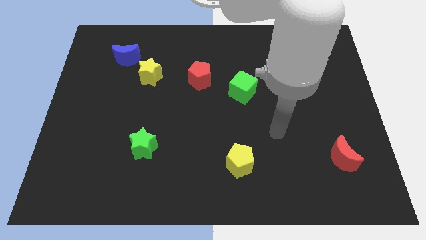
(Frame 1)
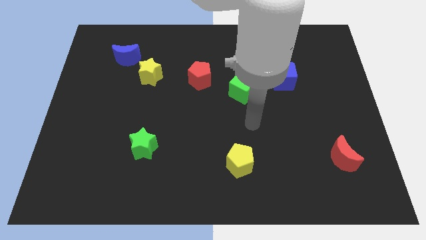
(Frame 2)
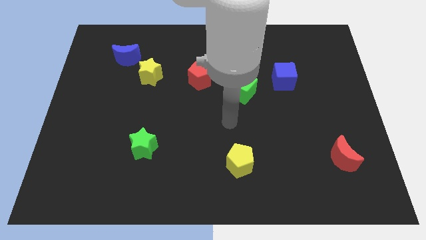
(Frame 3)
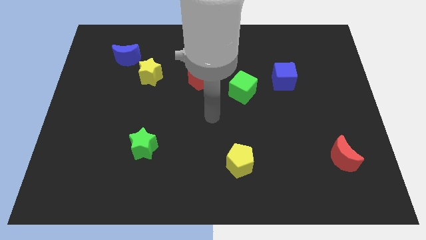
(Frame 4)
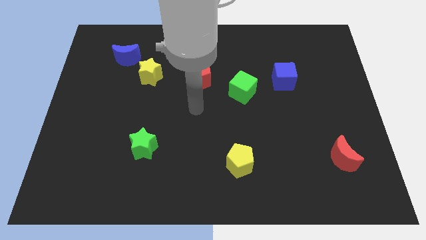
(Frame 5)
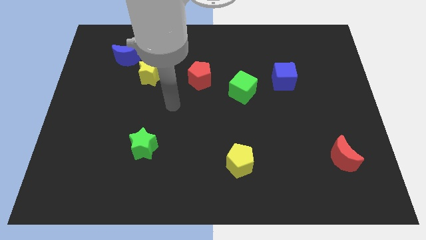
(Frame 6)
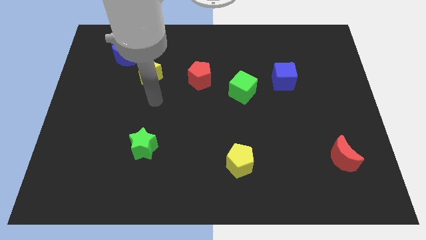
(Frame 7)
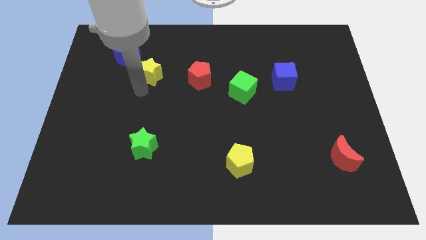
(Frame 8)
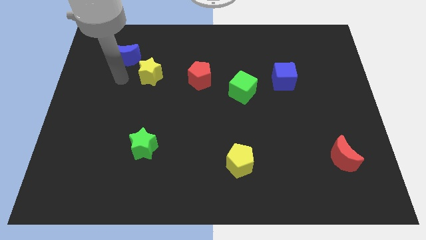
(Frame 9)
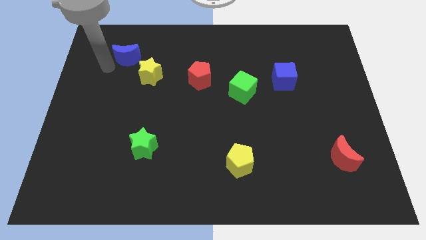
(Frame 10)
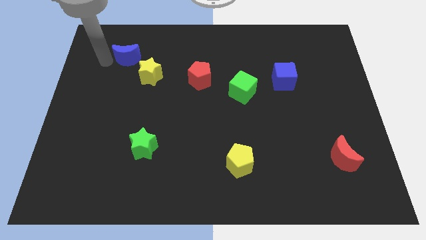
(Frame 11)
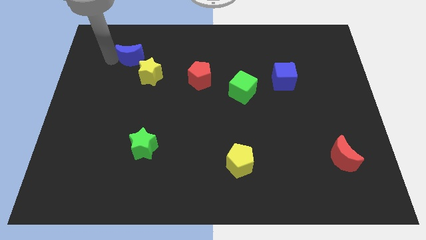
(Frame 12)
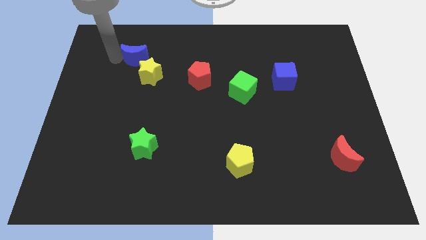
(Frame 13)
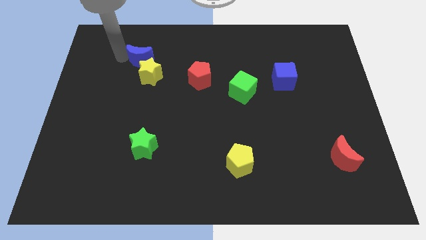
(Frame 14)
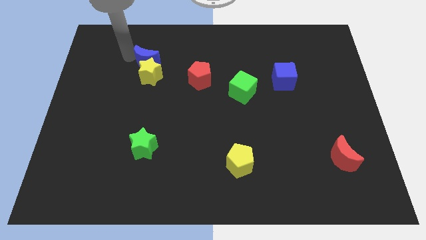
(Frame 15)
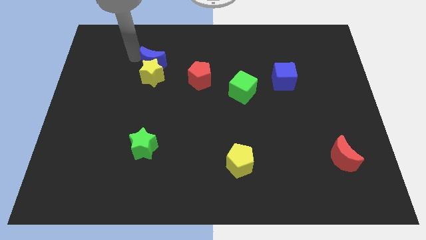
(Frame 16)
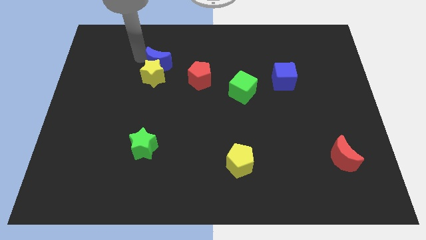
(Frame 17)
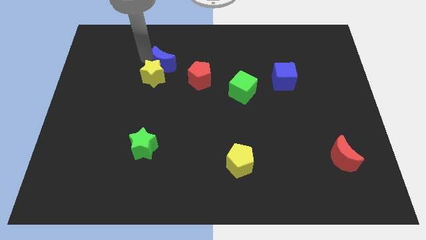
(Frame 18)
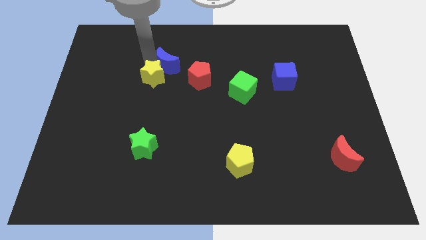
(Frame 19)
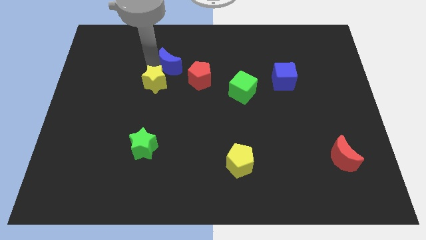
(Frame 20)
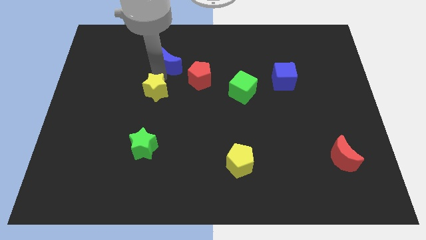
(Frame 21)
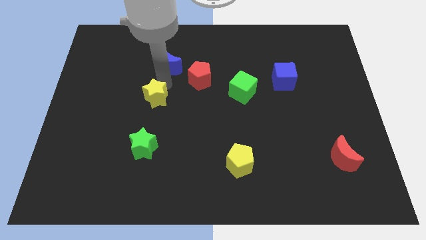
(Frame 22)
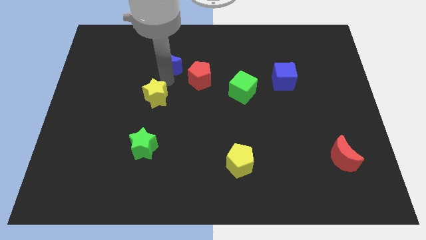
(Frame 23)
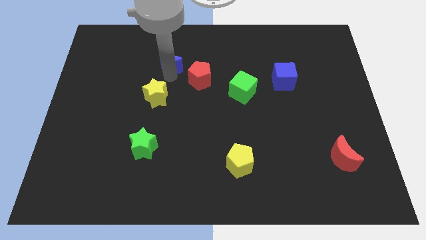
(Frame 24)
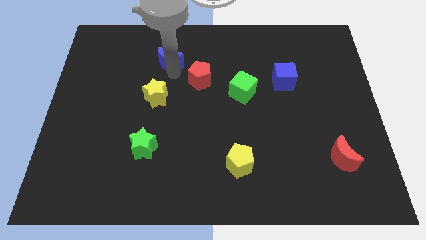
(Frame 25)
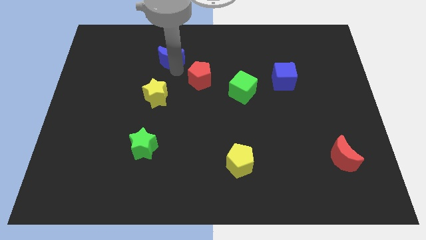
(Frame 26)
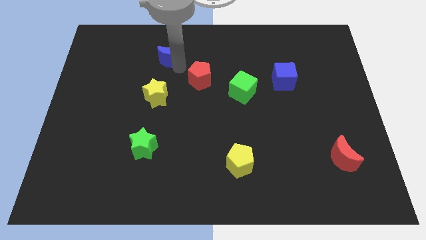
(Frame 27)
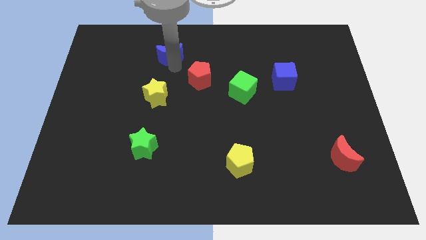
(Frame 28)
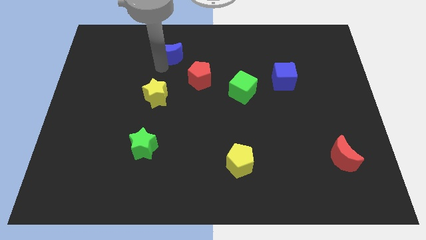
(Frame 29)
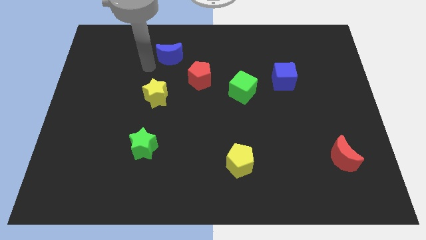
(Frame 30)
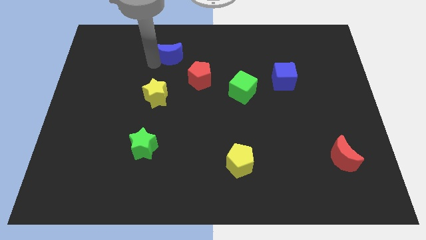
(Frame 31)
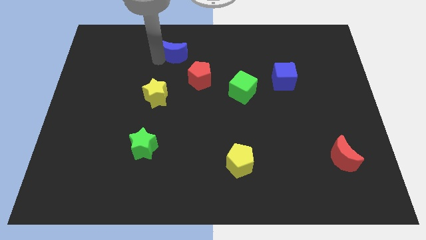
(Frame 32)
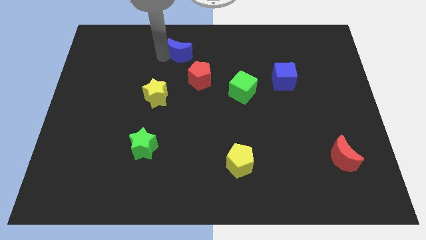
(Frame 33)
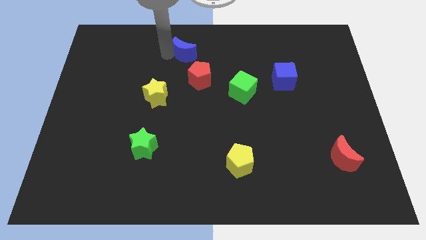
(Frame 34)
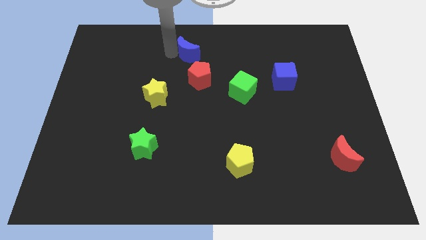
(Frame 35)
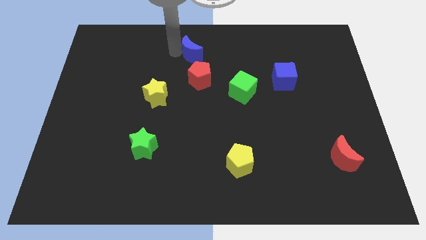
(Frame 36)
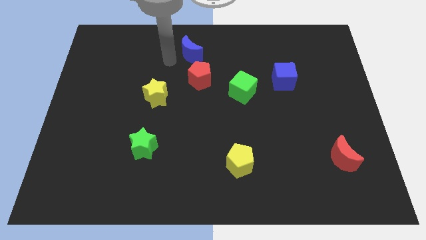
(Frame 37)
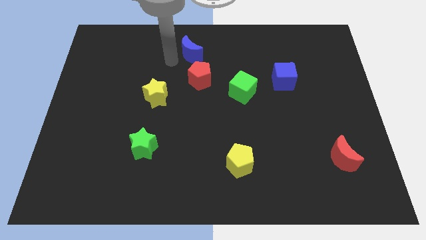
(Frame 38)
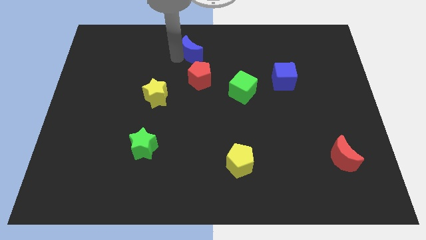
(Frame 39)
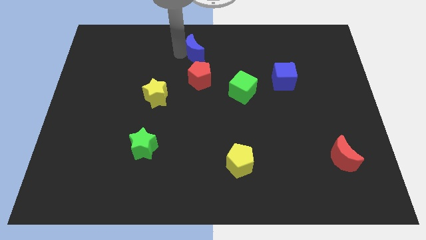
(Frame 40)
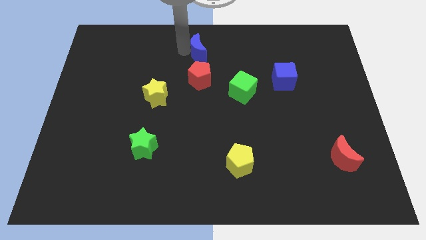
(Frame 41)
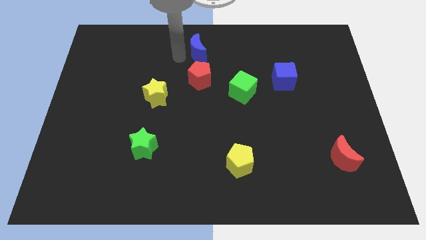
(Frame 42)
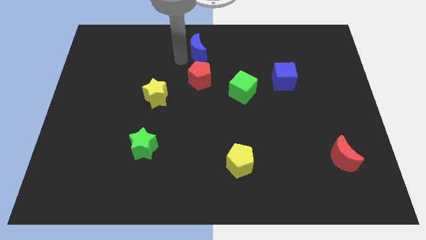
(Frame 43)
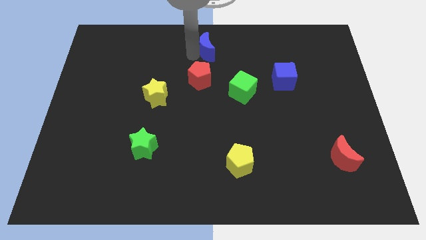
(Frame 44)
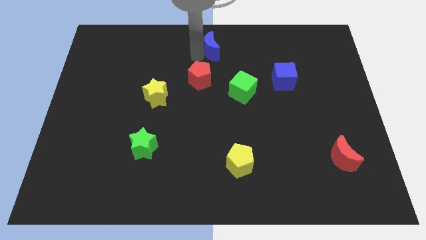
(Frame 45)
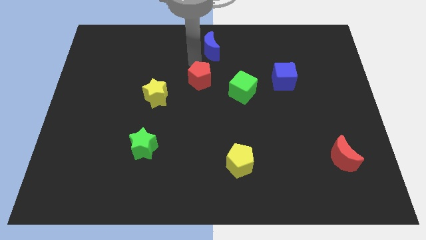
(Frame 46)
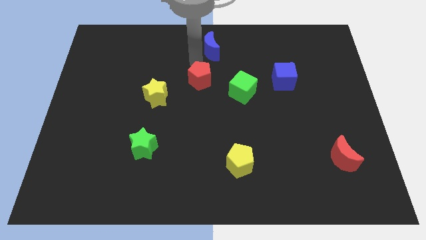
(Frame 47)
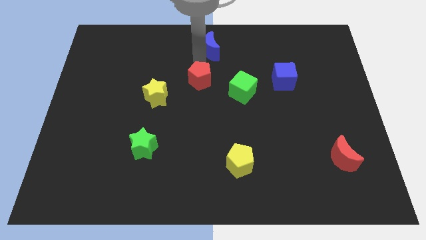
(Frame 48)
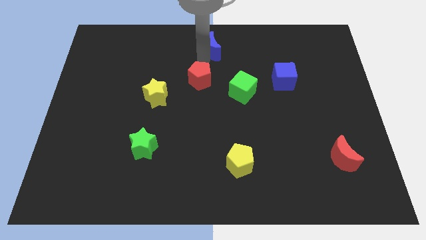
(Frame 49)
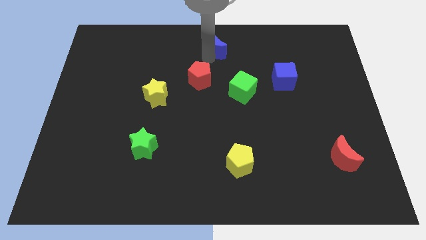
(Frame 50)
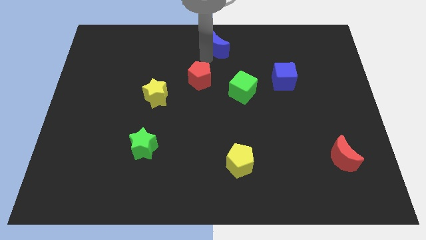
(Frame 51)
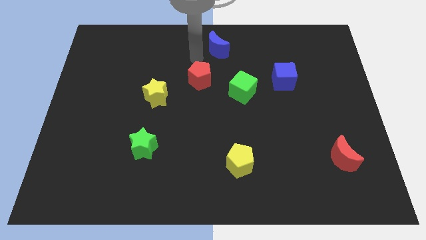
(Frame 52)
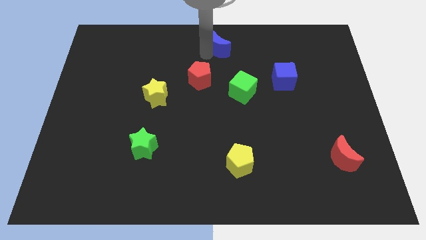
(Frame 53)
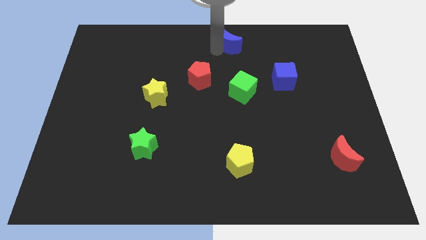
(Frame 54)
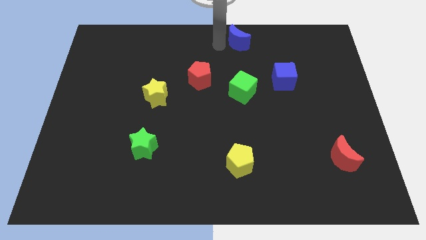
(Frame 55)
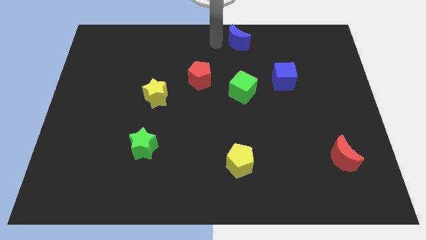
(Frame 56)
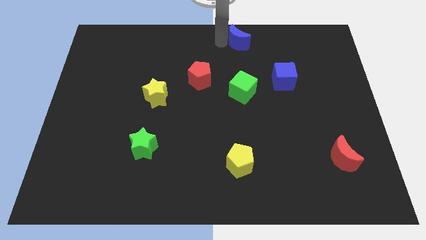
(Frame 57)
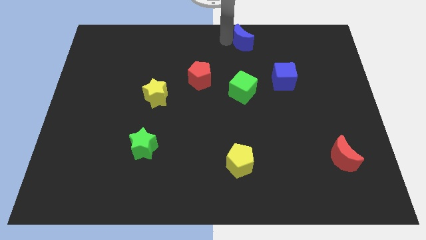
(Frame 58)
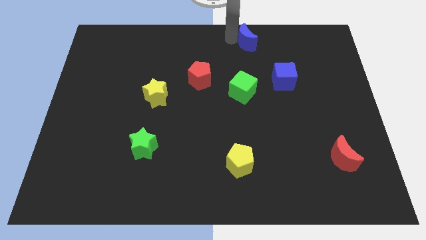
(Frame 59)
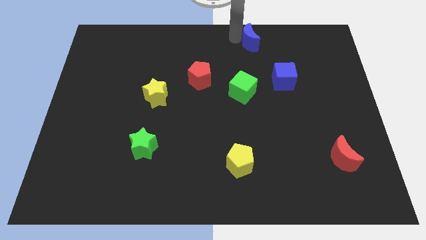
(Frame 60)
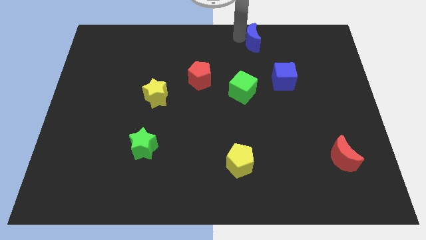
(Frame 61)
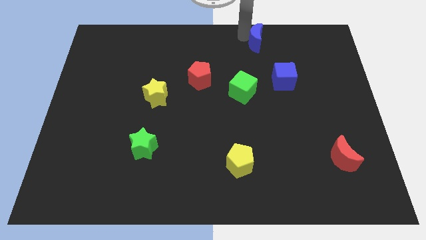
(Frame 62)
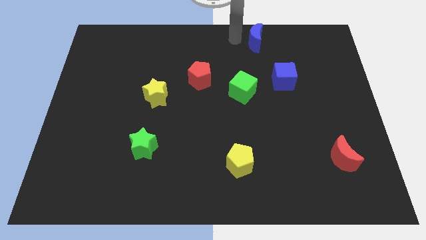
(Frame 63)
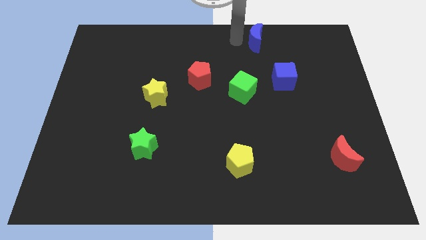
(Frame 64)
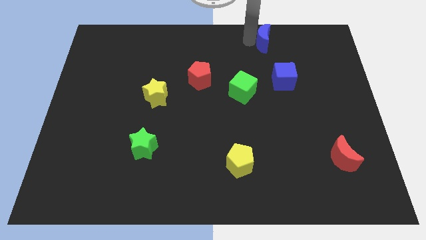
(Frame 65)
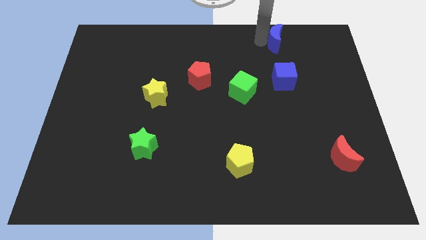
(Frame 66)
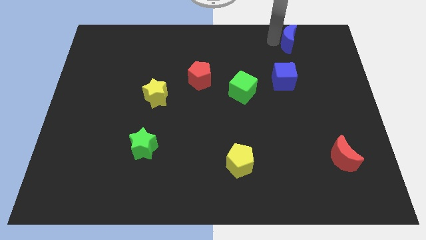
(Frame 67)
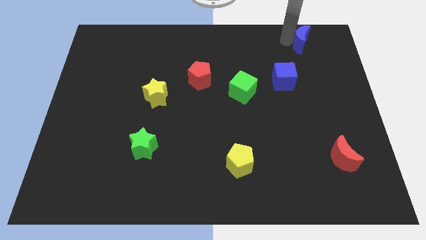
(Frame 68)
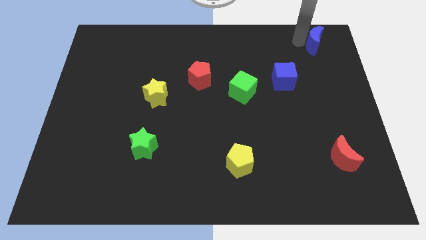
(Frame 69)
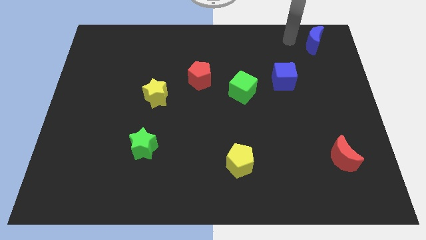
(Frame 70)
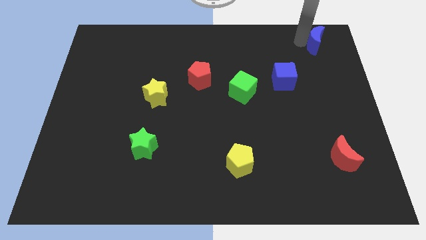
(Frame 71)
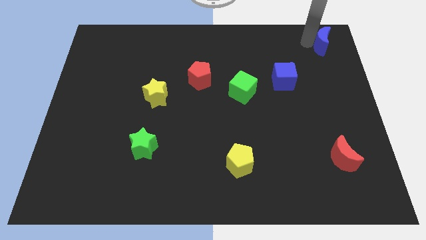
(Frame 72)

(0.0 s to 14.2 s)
push the blue moon to the top right

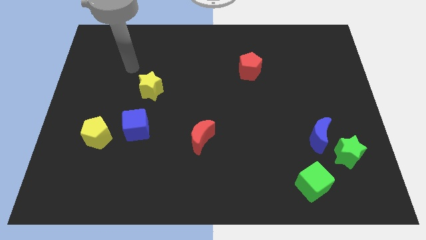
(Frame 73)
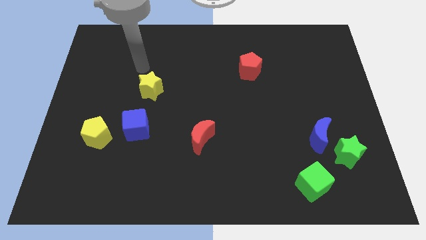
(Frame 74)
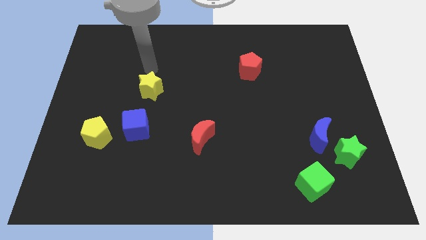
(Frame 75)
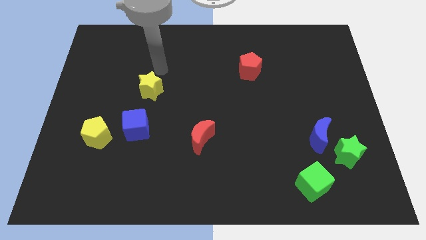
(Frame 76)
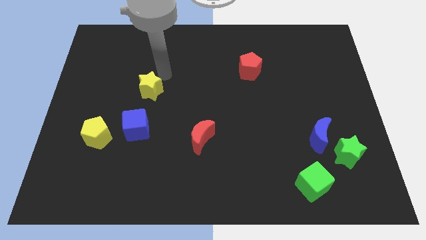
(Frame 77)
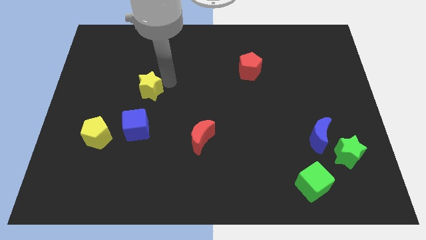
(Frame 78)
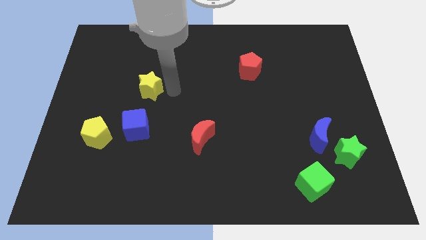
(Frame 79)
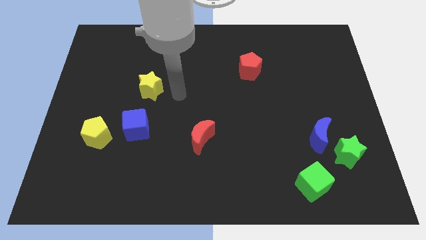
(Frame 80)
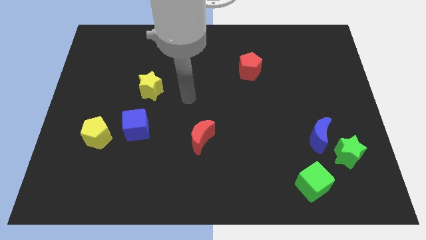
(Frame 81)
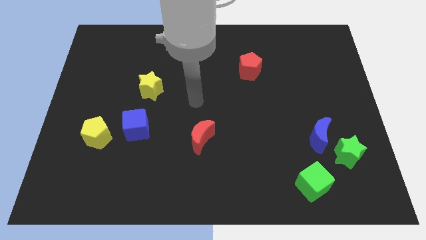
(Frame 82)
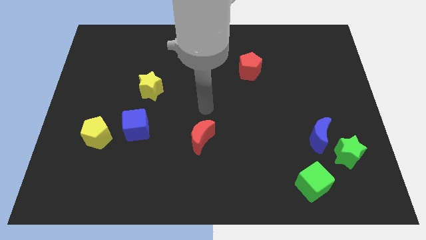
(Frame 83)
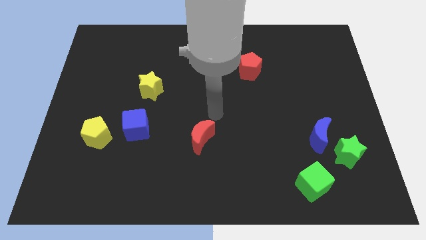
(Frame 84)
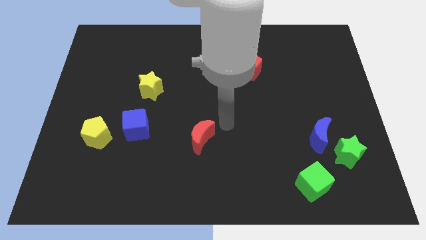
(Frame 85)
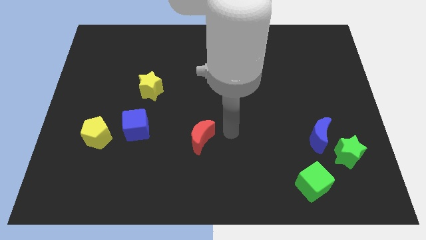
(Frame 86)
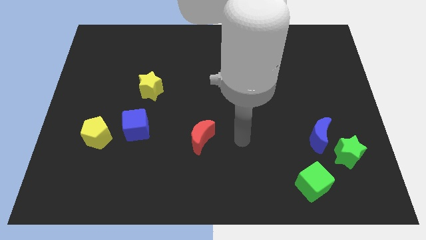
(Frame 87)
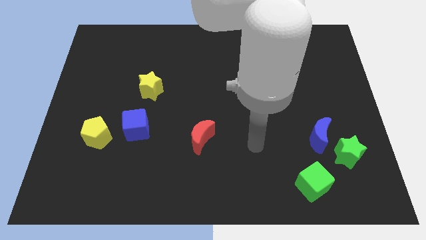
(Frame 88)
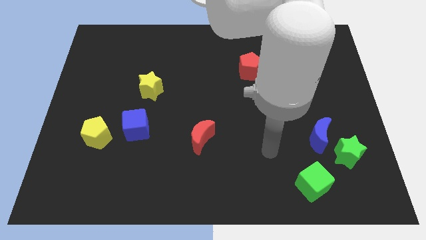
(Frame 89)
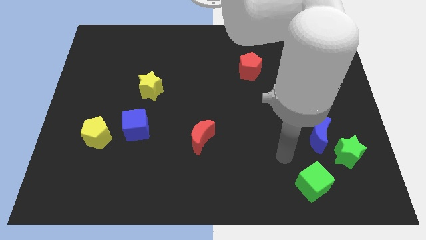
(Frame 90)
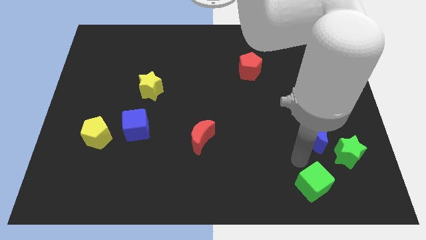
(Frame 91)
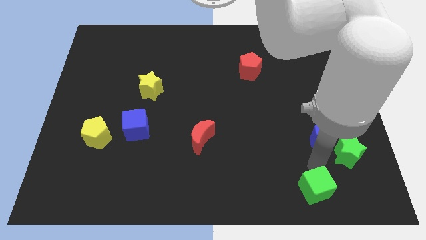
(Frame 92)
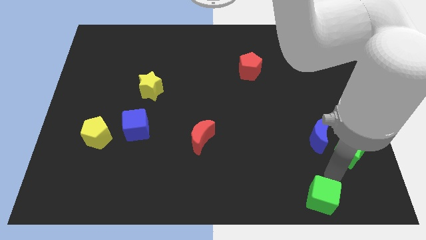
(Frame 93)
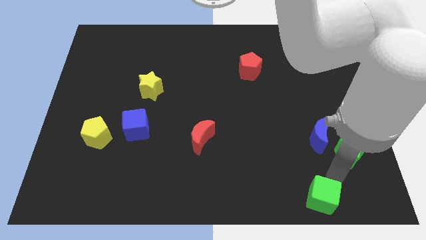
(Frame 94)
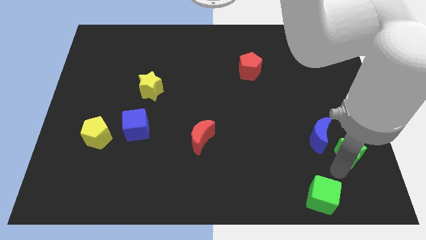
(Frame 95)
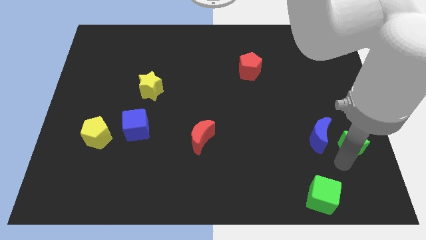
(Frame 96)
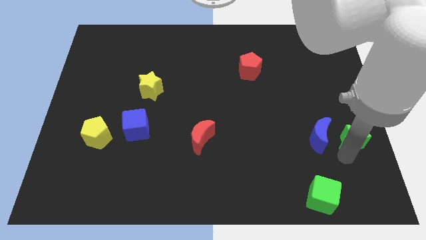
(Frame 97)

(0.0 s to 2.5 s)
slide the green star to the right side
